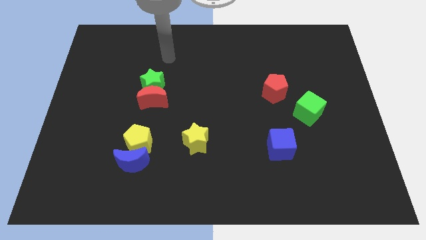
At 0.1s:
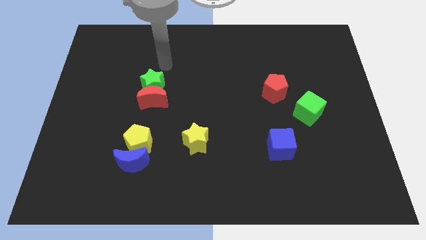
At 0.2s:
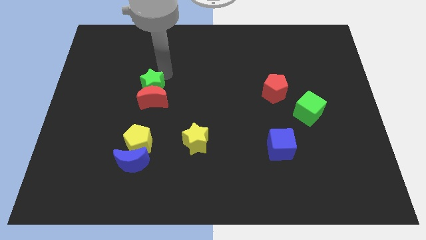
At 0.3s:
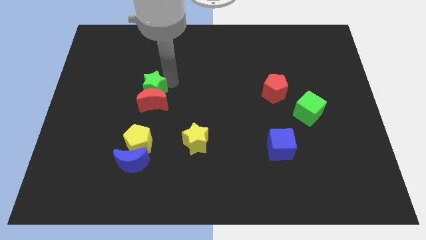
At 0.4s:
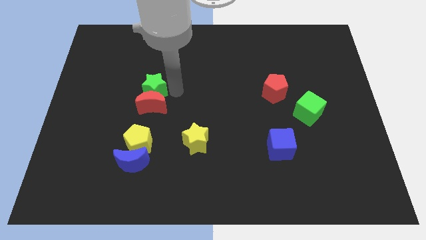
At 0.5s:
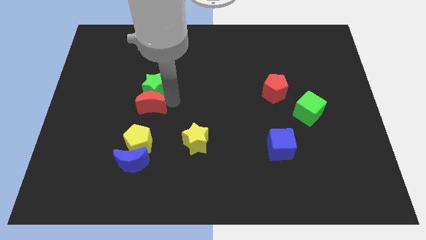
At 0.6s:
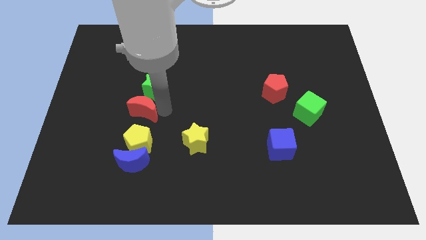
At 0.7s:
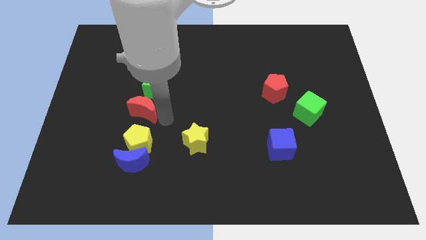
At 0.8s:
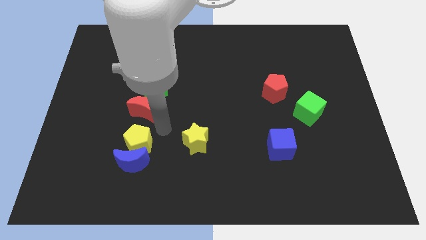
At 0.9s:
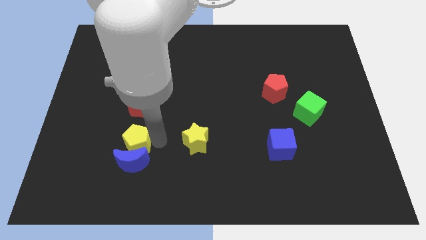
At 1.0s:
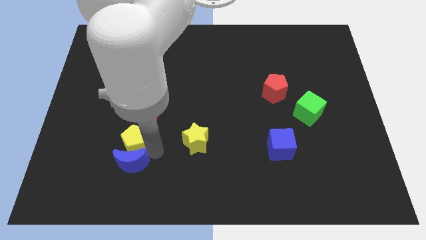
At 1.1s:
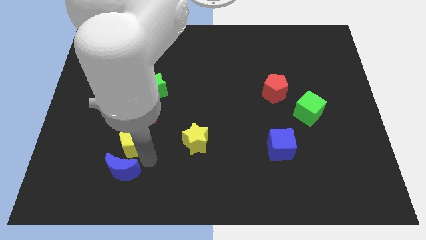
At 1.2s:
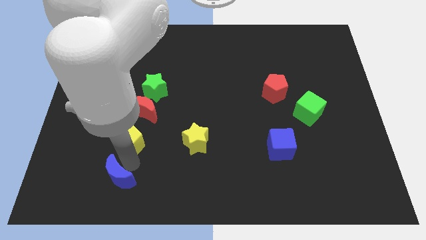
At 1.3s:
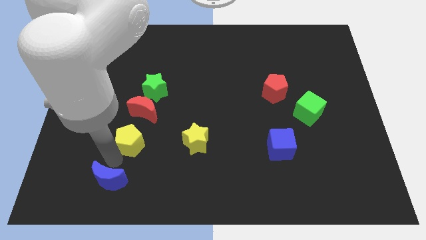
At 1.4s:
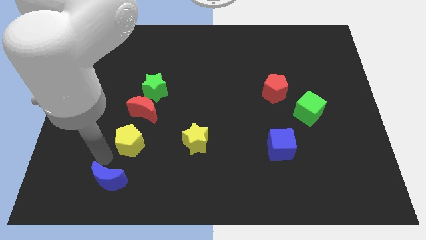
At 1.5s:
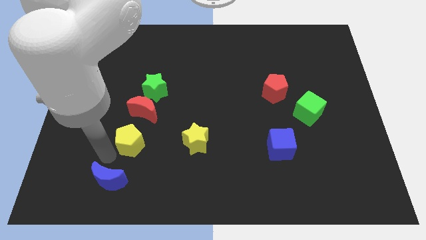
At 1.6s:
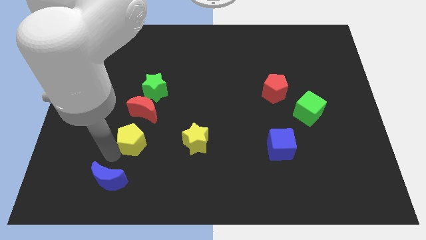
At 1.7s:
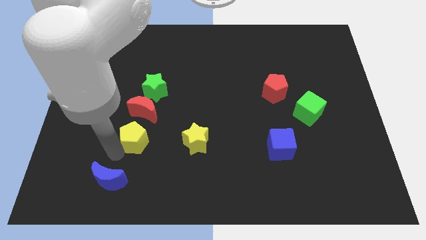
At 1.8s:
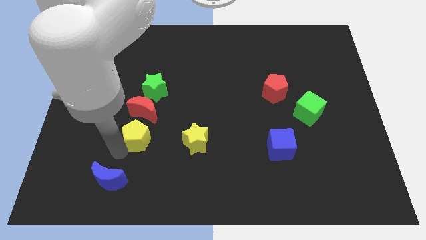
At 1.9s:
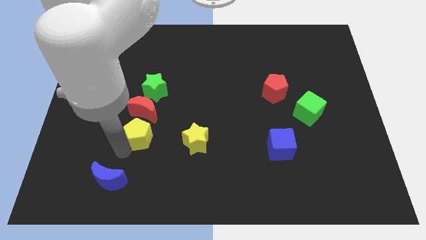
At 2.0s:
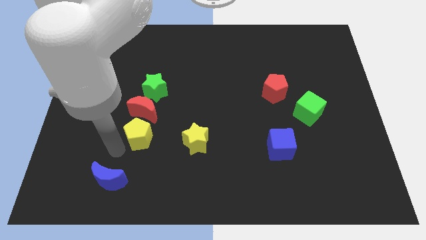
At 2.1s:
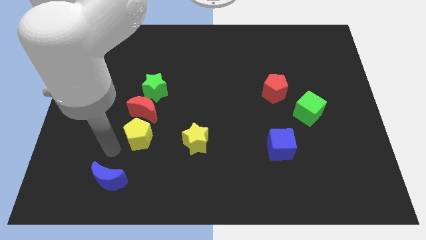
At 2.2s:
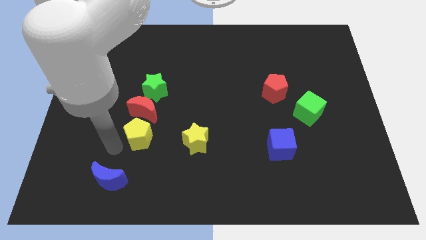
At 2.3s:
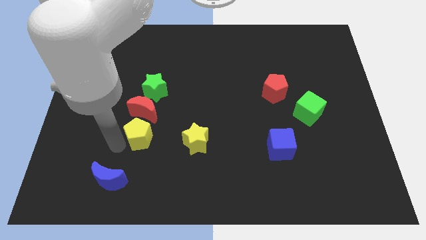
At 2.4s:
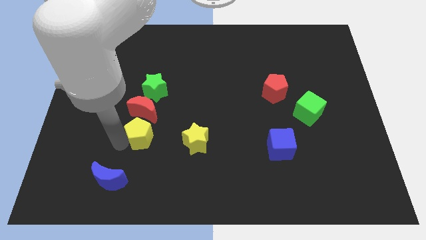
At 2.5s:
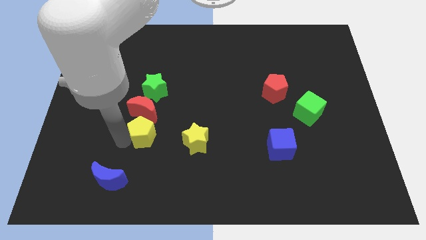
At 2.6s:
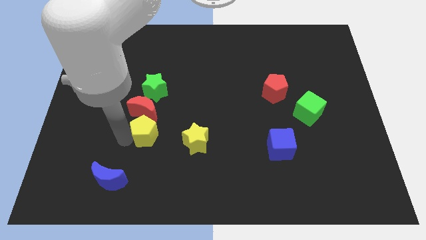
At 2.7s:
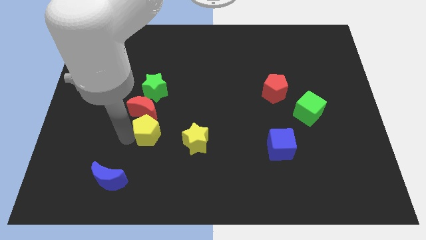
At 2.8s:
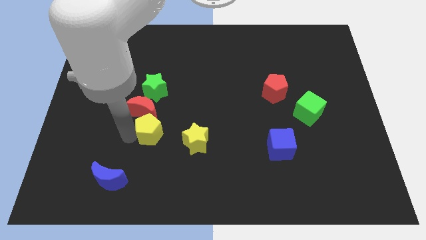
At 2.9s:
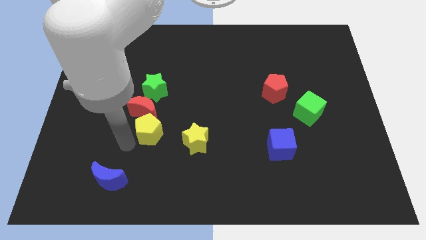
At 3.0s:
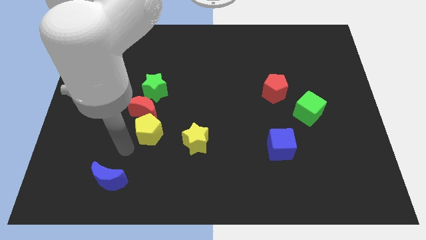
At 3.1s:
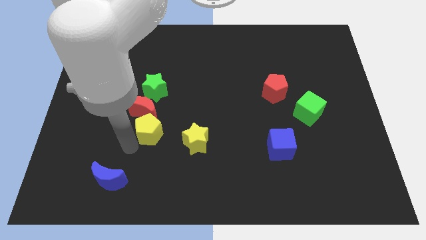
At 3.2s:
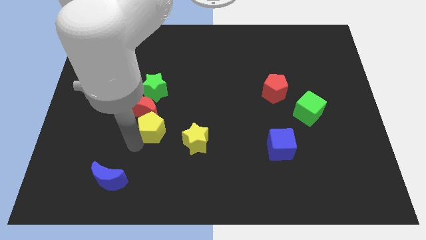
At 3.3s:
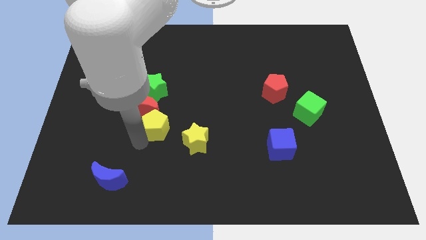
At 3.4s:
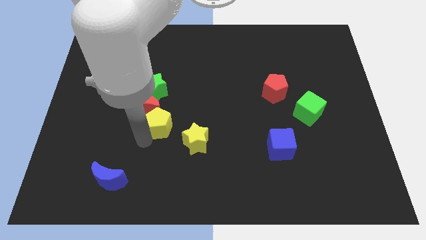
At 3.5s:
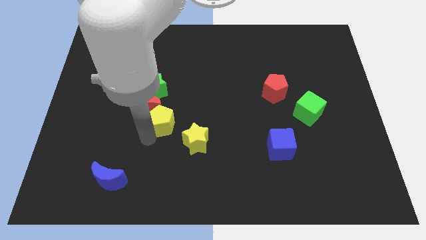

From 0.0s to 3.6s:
slide the yellow pentagon a little upwards and then to the right

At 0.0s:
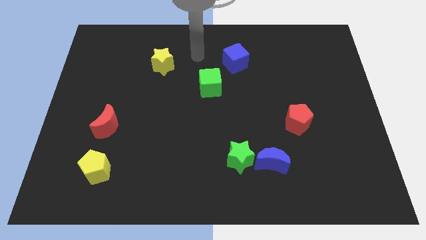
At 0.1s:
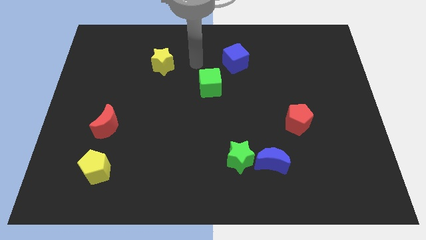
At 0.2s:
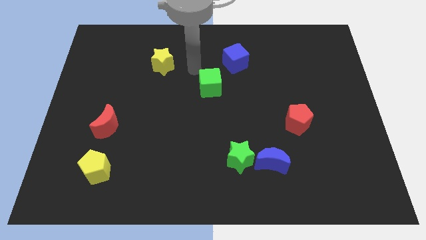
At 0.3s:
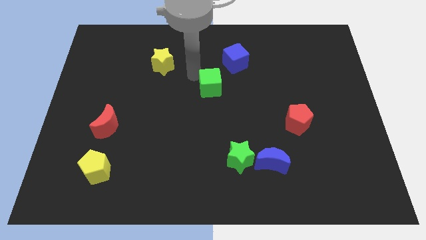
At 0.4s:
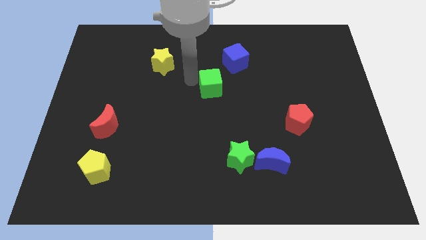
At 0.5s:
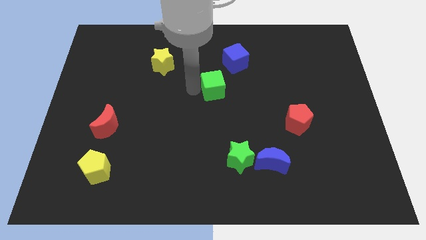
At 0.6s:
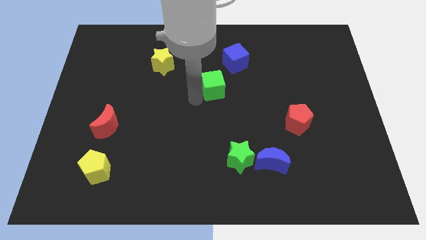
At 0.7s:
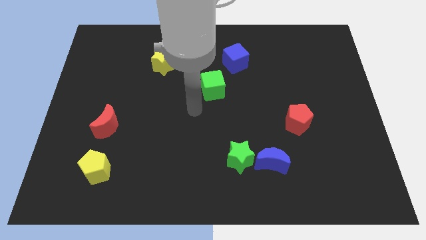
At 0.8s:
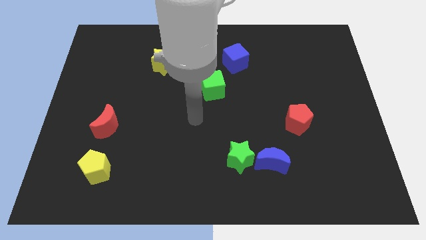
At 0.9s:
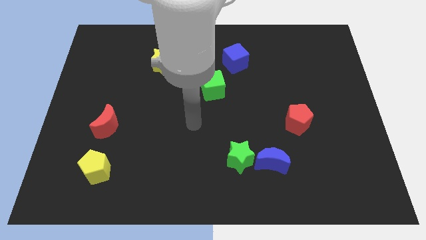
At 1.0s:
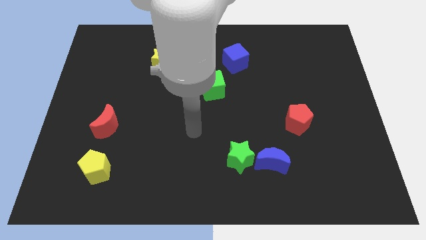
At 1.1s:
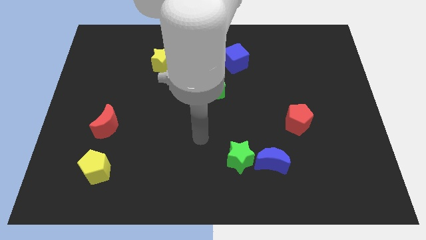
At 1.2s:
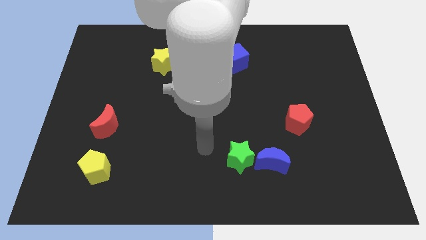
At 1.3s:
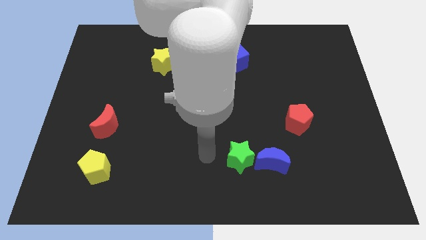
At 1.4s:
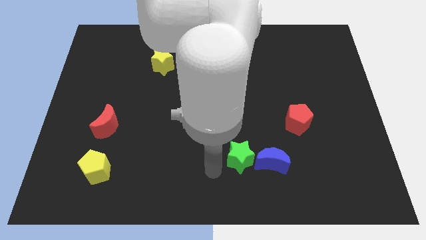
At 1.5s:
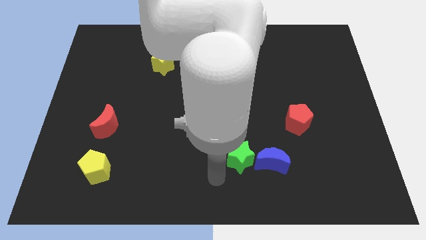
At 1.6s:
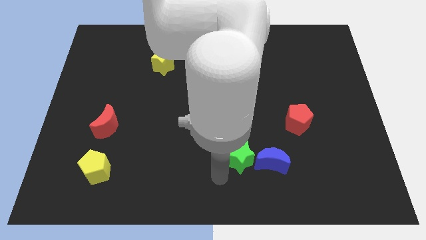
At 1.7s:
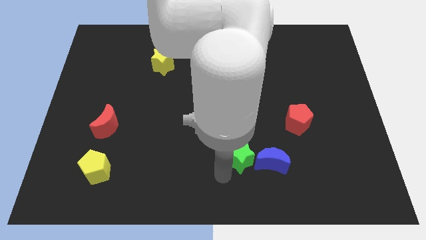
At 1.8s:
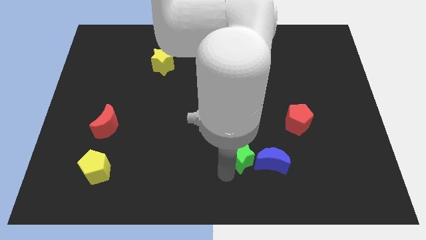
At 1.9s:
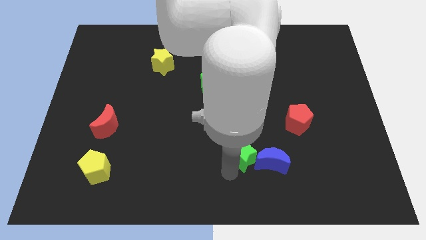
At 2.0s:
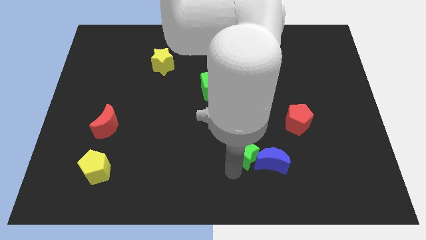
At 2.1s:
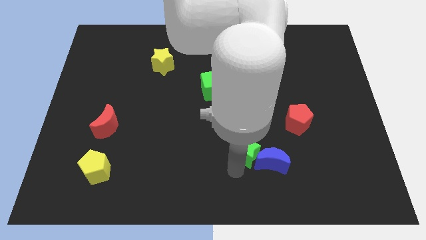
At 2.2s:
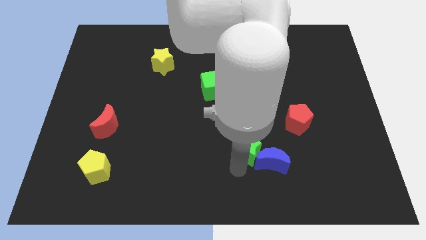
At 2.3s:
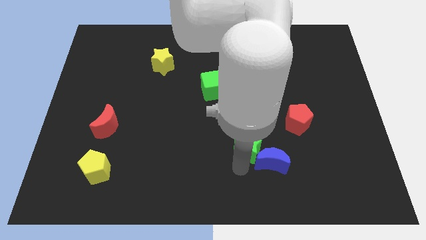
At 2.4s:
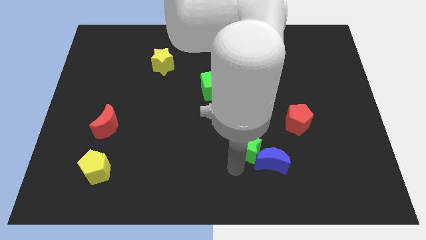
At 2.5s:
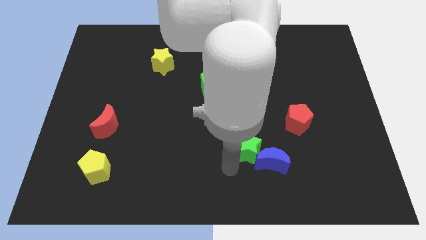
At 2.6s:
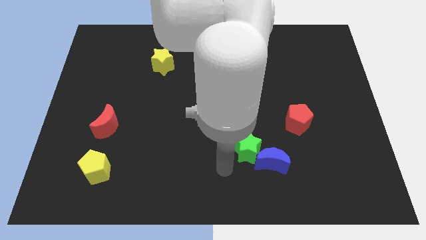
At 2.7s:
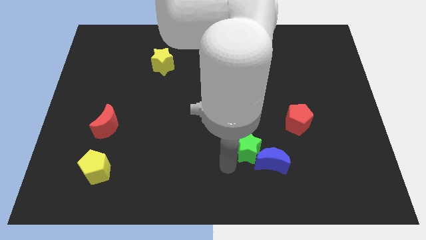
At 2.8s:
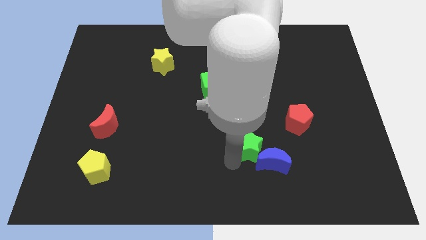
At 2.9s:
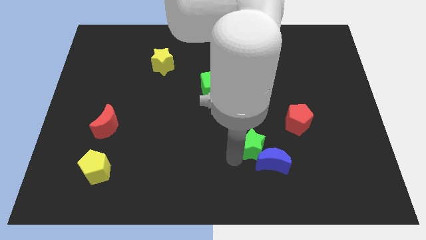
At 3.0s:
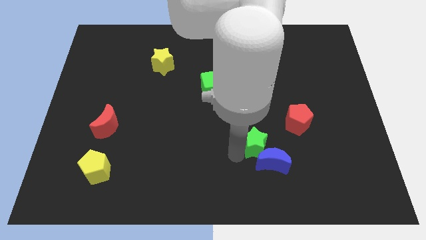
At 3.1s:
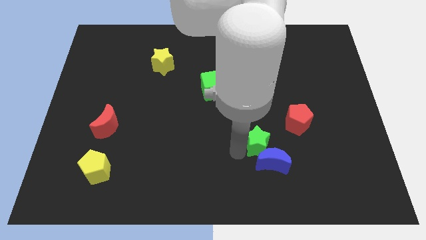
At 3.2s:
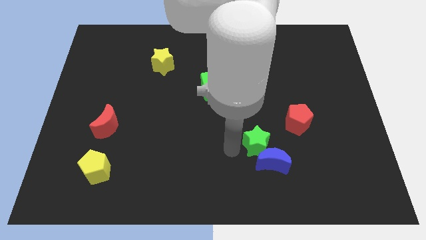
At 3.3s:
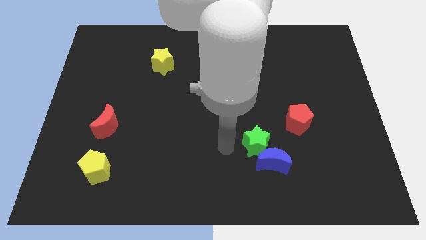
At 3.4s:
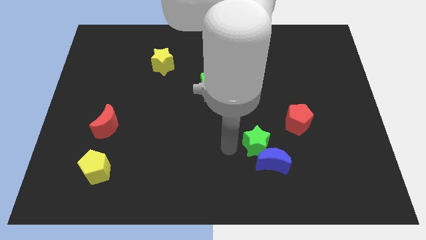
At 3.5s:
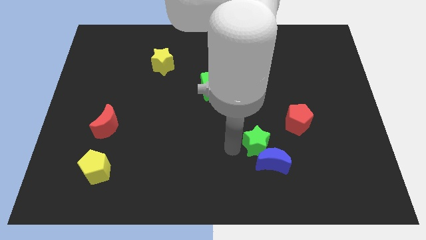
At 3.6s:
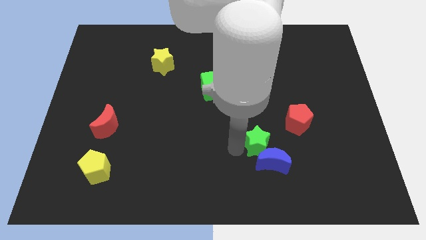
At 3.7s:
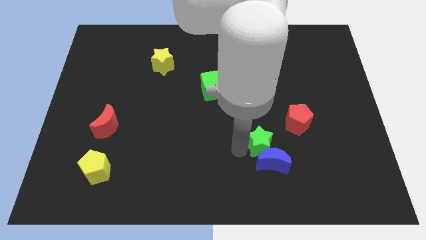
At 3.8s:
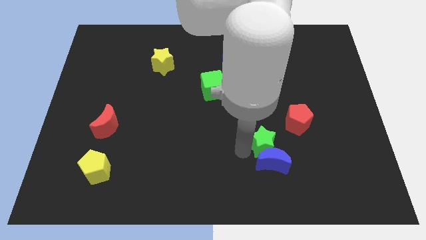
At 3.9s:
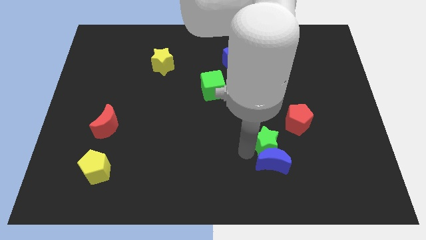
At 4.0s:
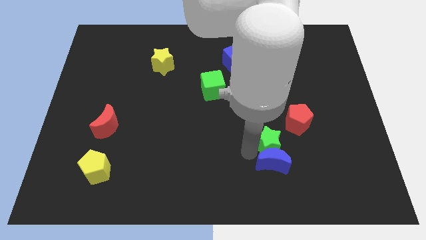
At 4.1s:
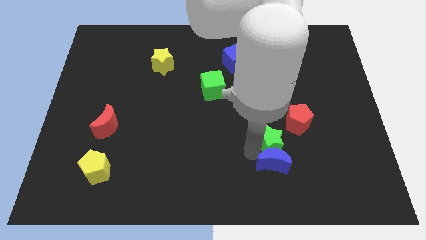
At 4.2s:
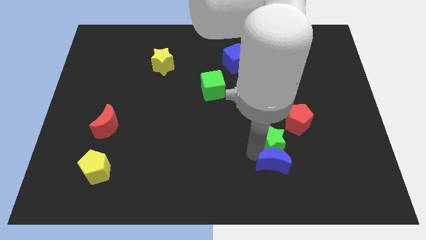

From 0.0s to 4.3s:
move the green star somewhat right

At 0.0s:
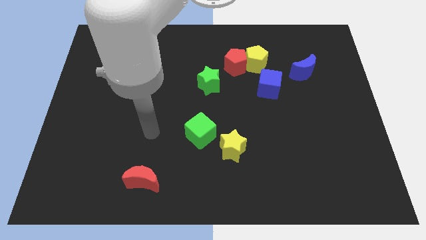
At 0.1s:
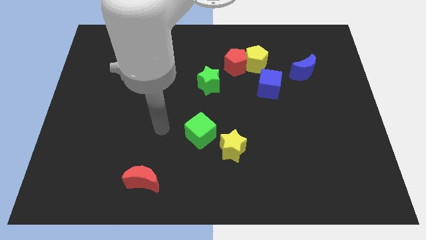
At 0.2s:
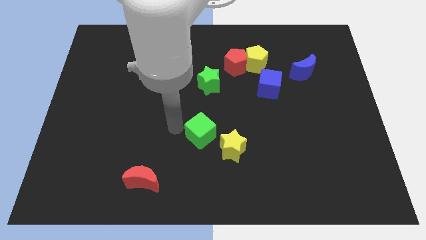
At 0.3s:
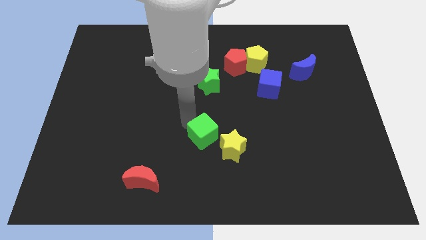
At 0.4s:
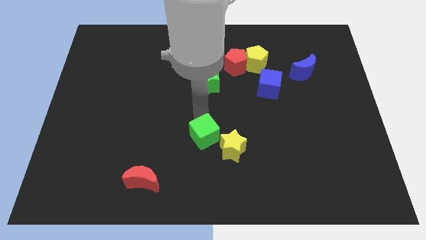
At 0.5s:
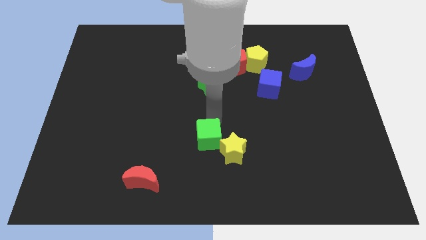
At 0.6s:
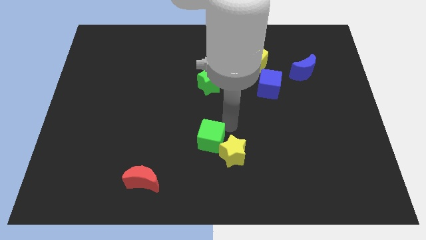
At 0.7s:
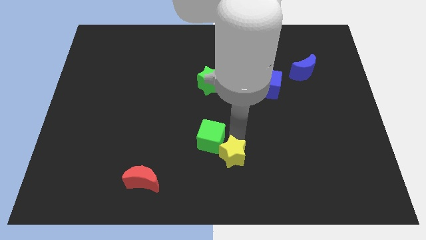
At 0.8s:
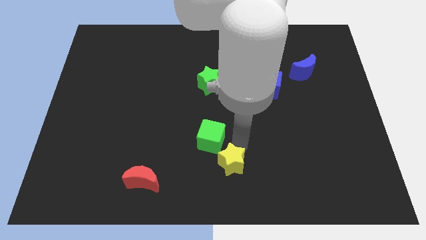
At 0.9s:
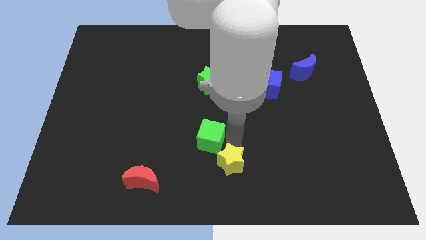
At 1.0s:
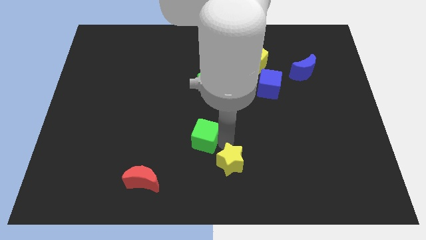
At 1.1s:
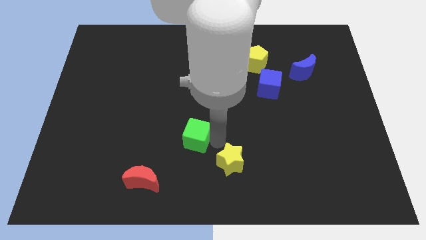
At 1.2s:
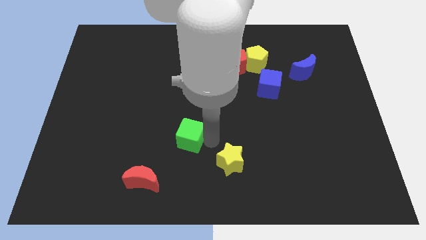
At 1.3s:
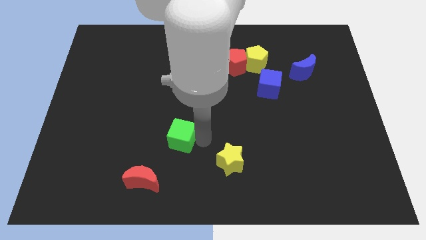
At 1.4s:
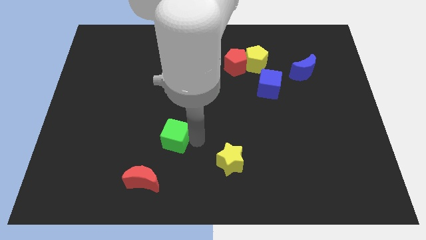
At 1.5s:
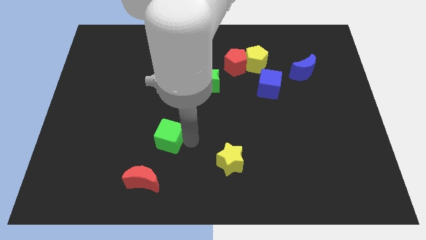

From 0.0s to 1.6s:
move the green cube slightly to the left
